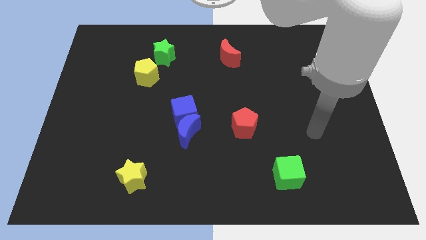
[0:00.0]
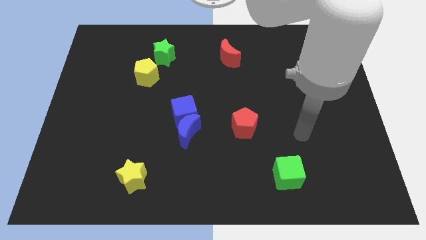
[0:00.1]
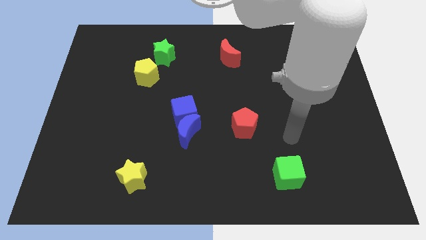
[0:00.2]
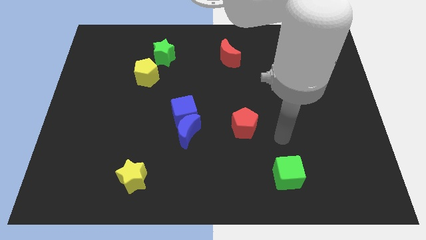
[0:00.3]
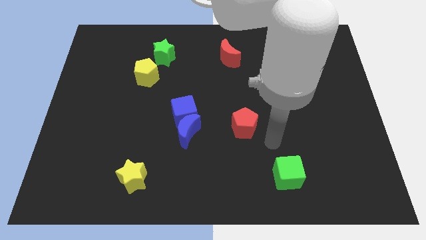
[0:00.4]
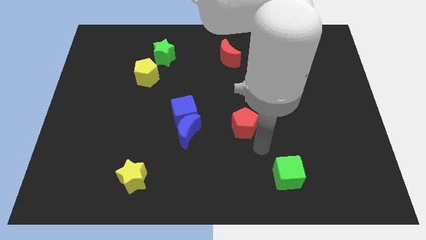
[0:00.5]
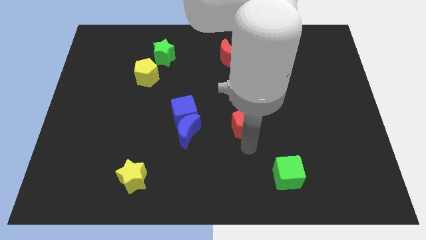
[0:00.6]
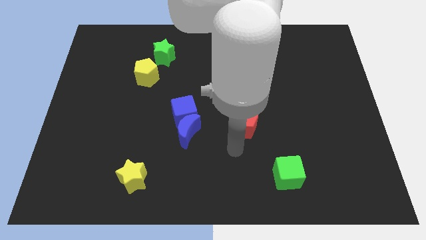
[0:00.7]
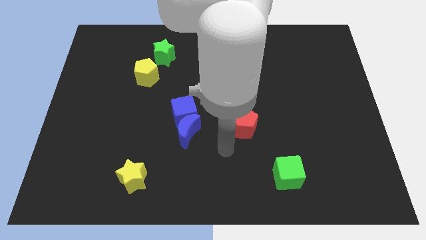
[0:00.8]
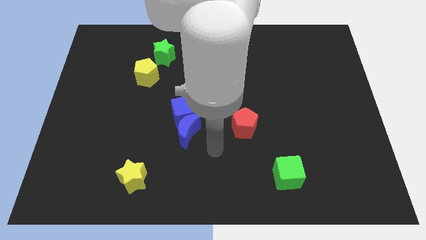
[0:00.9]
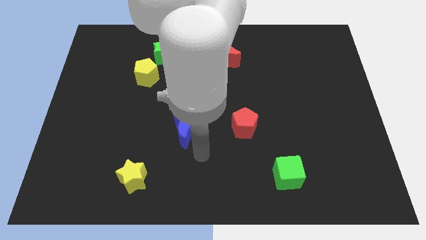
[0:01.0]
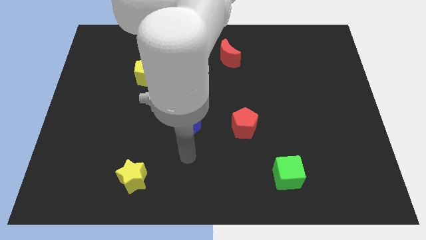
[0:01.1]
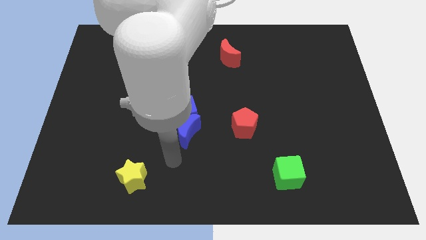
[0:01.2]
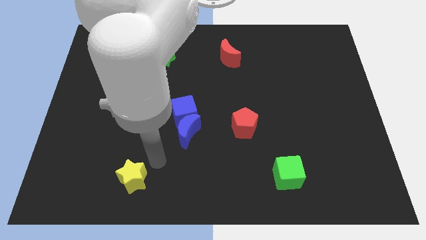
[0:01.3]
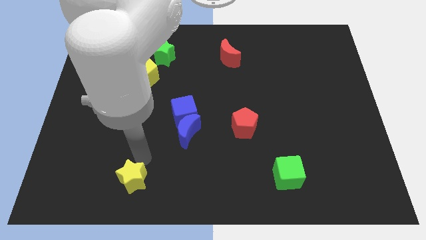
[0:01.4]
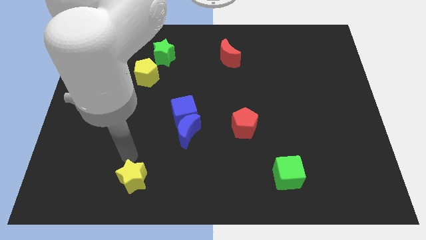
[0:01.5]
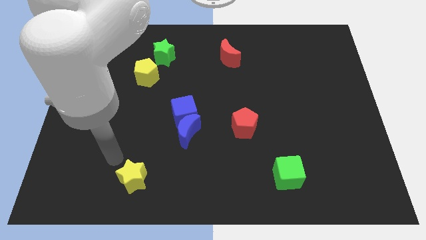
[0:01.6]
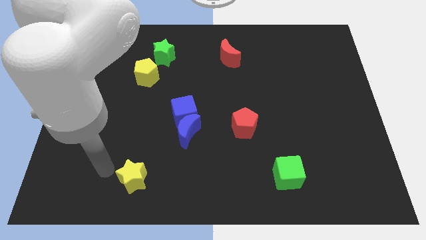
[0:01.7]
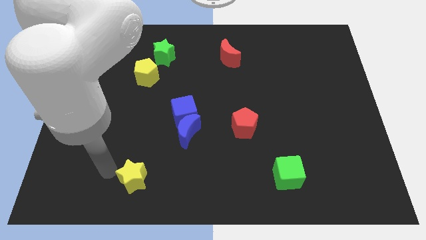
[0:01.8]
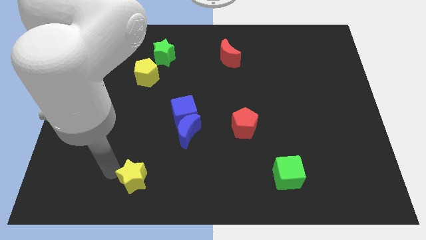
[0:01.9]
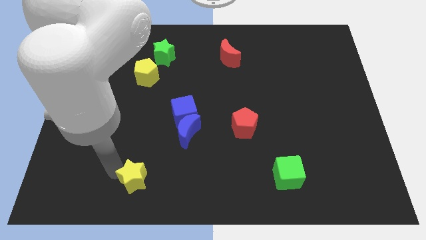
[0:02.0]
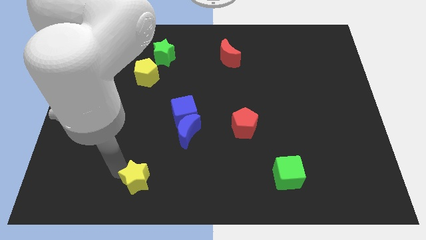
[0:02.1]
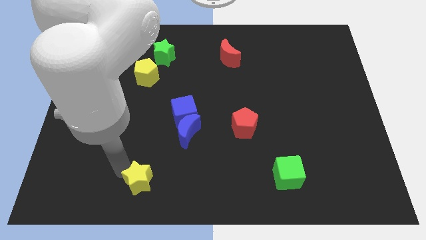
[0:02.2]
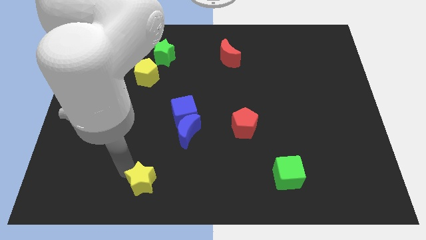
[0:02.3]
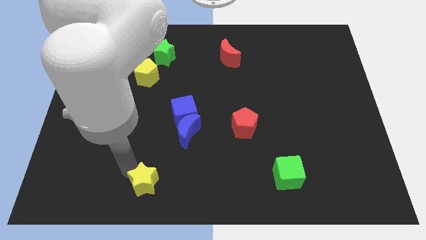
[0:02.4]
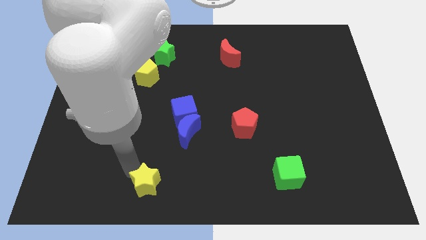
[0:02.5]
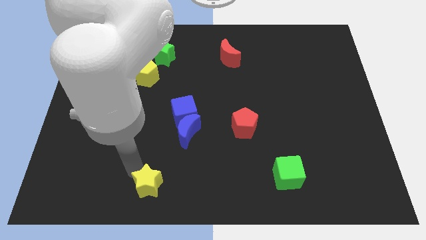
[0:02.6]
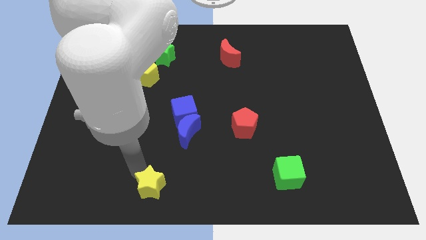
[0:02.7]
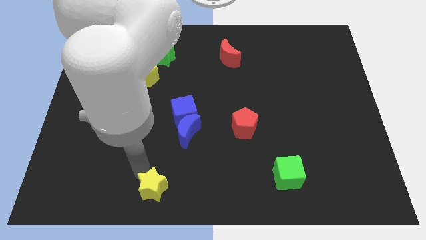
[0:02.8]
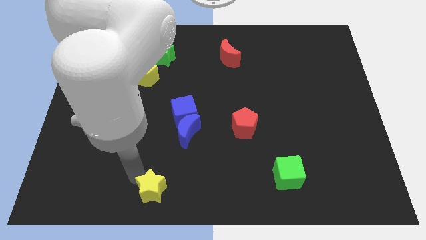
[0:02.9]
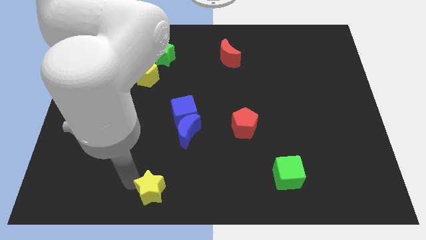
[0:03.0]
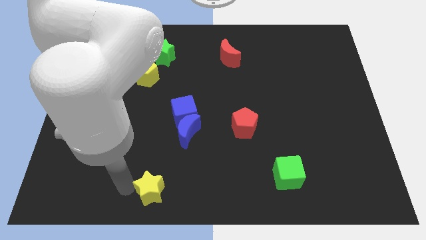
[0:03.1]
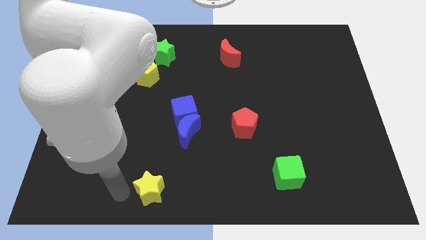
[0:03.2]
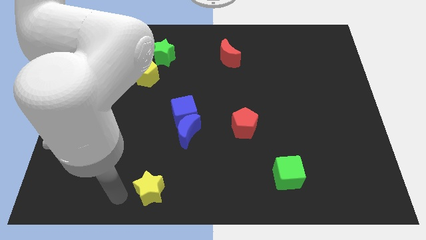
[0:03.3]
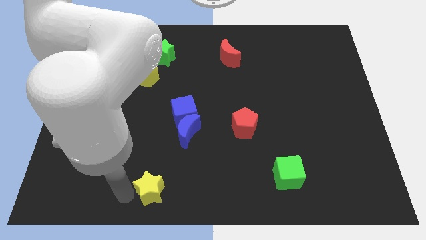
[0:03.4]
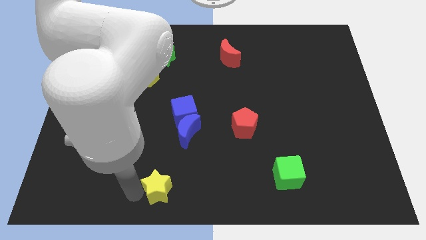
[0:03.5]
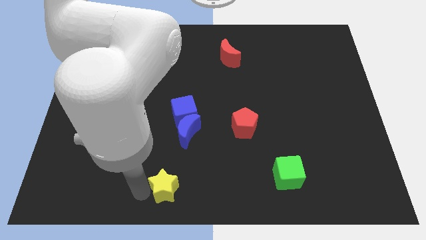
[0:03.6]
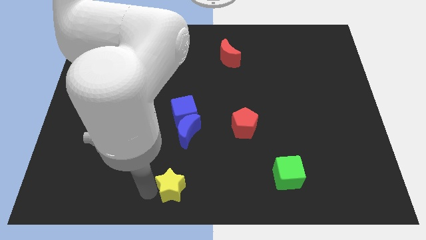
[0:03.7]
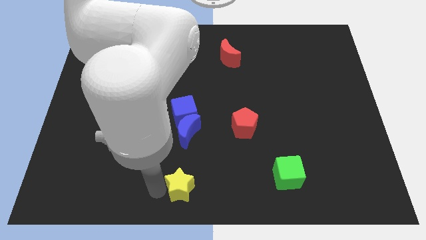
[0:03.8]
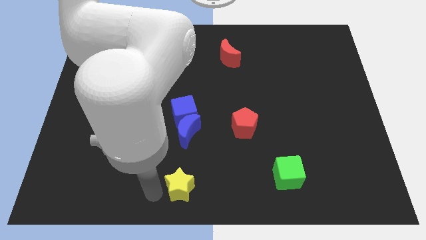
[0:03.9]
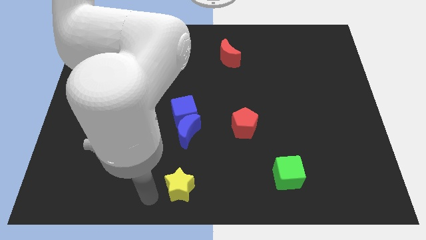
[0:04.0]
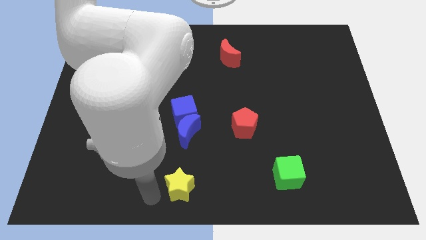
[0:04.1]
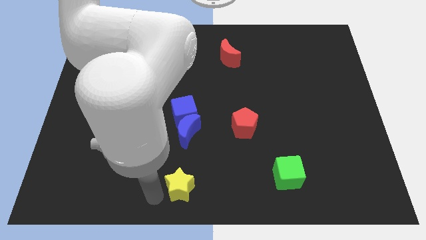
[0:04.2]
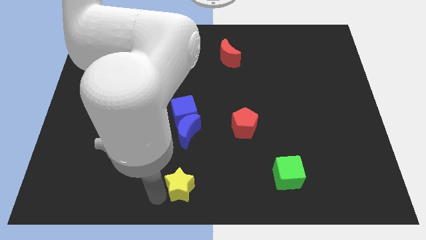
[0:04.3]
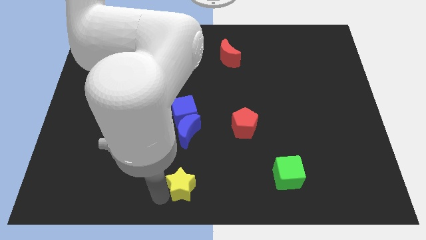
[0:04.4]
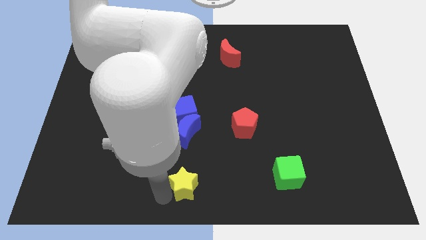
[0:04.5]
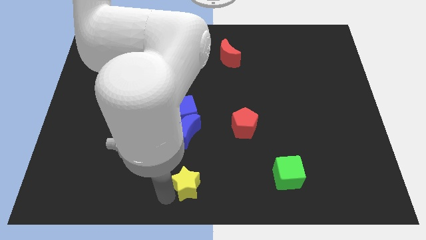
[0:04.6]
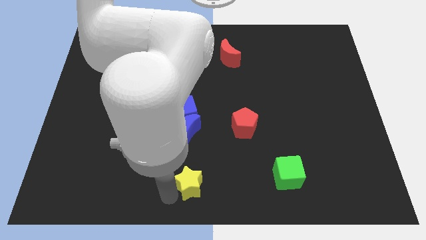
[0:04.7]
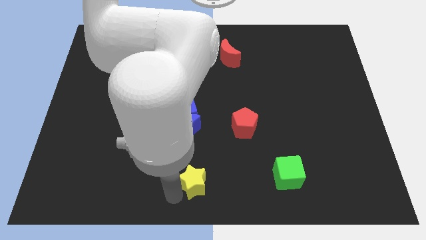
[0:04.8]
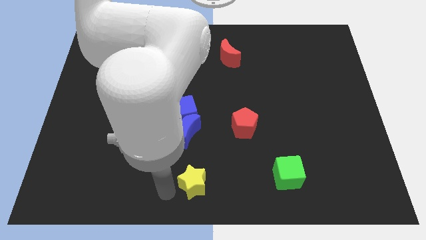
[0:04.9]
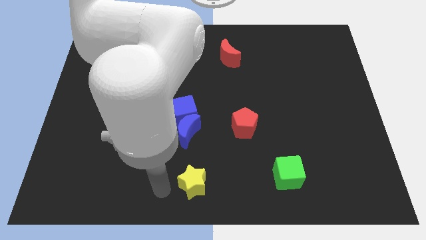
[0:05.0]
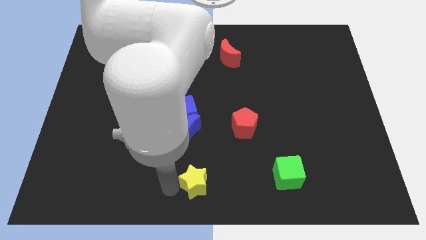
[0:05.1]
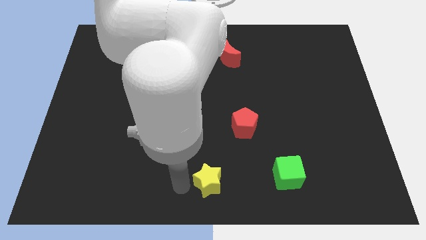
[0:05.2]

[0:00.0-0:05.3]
move the yellow star to the left side of the green cube

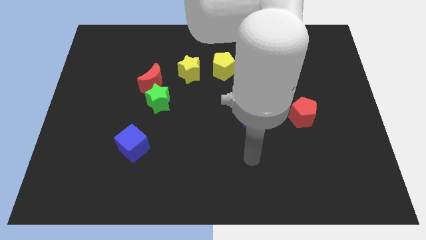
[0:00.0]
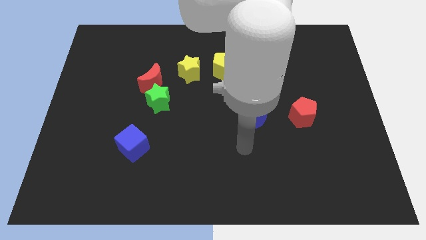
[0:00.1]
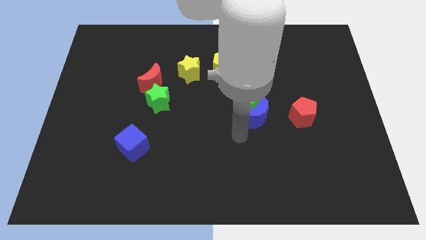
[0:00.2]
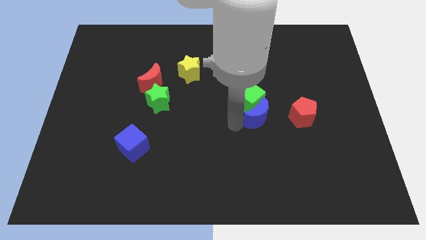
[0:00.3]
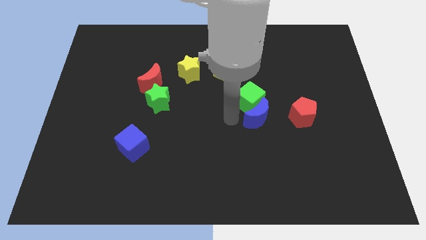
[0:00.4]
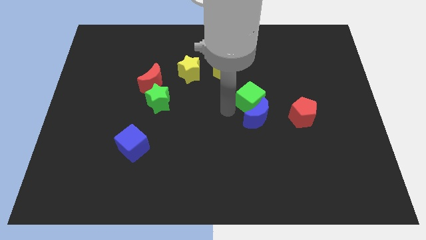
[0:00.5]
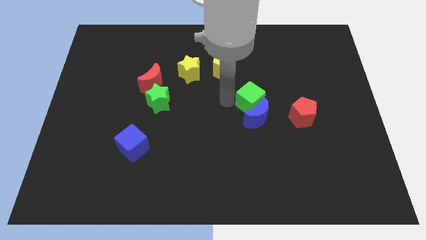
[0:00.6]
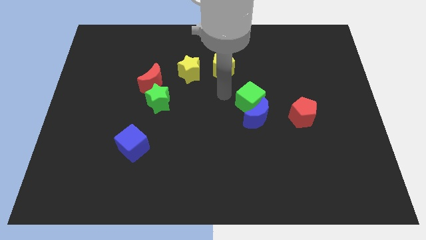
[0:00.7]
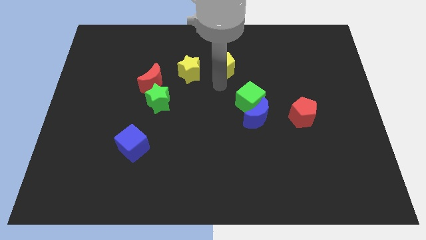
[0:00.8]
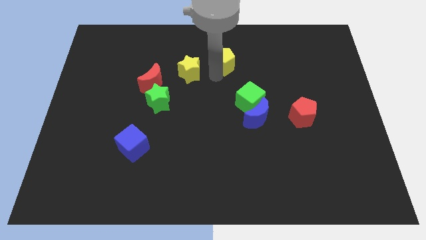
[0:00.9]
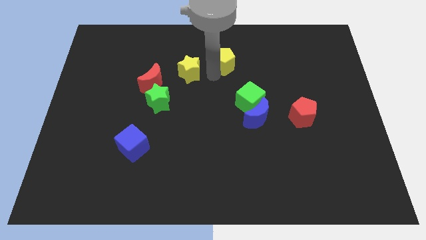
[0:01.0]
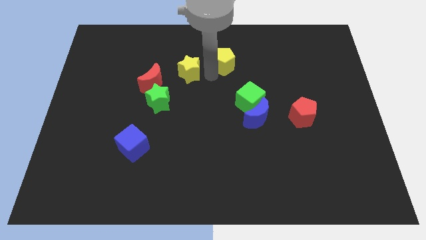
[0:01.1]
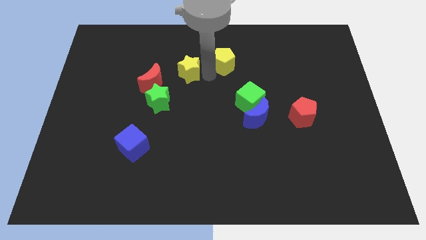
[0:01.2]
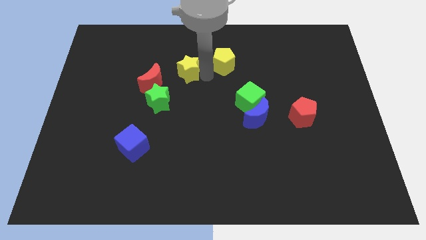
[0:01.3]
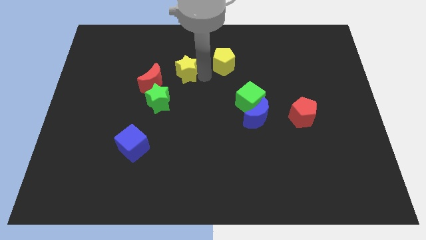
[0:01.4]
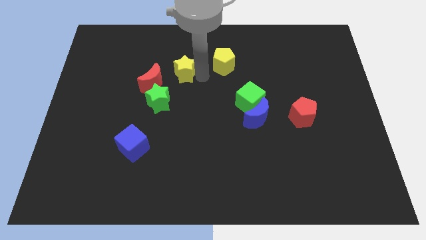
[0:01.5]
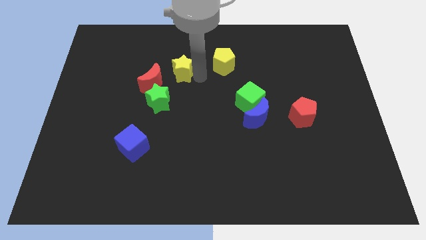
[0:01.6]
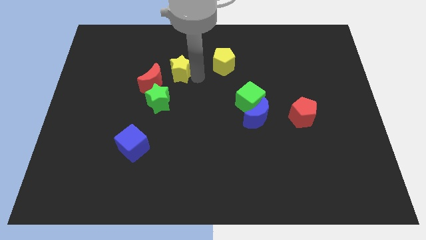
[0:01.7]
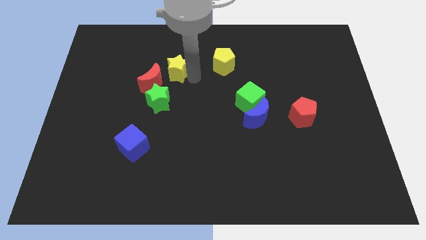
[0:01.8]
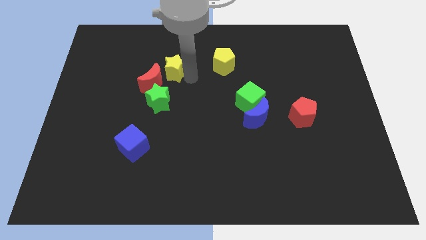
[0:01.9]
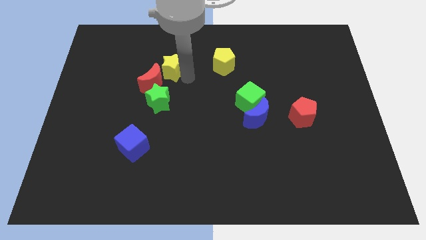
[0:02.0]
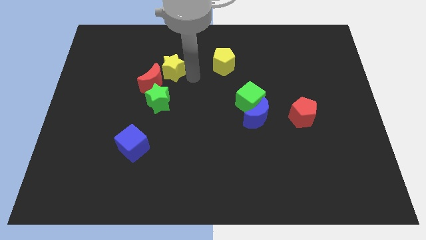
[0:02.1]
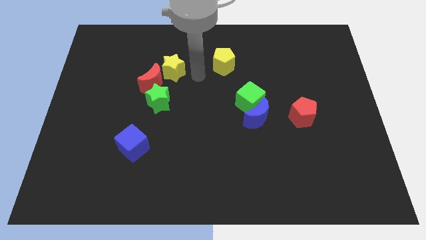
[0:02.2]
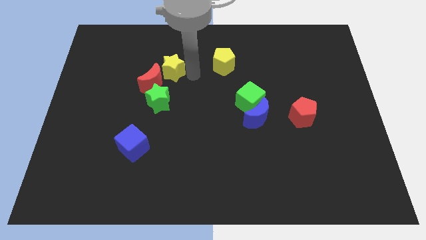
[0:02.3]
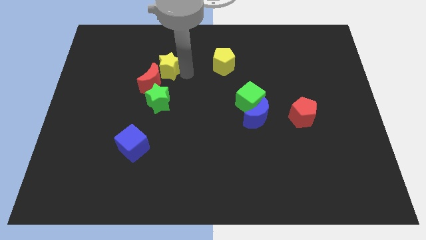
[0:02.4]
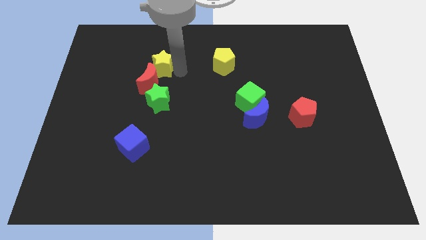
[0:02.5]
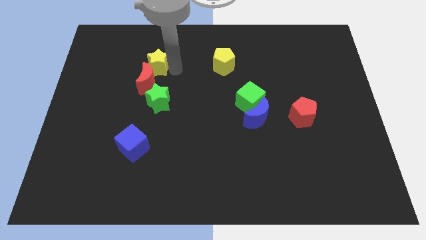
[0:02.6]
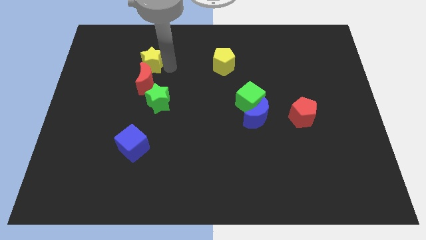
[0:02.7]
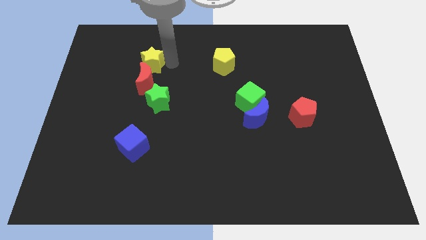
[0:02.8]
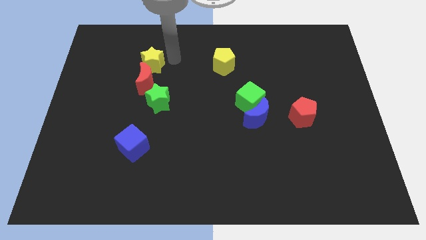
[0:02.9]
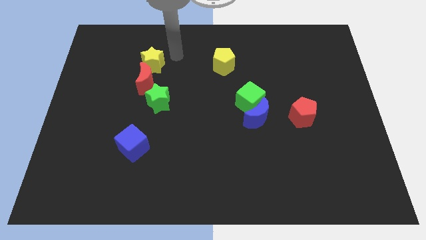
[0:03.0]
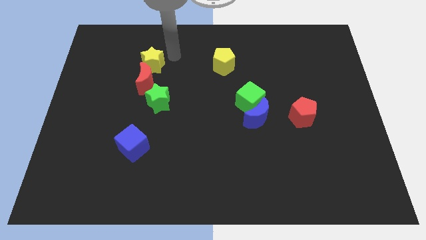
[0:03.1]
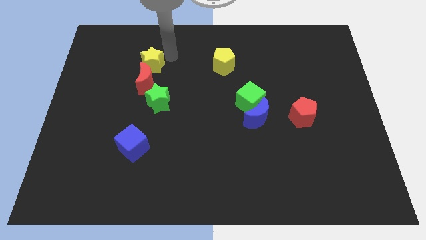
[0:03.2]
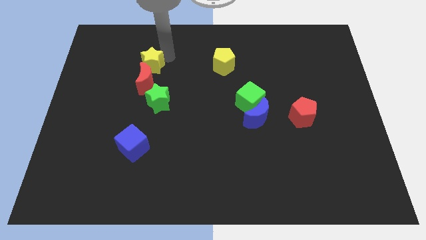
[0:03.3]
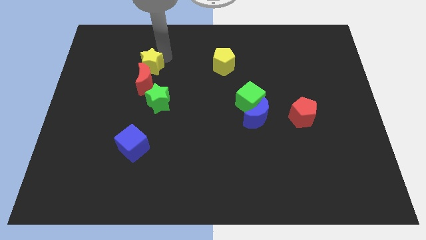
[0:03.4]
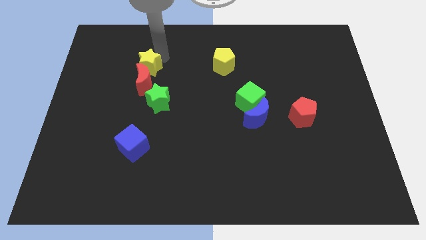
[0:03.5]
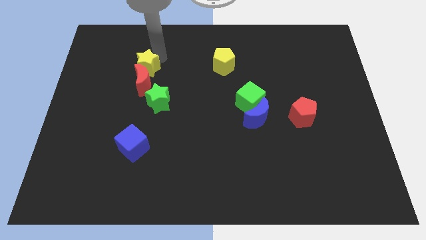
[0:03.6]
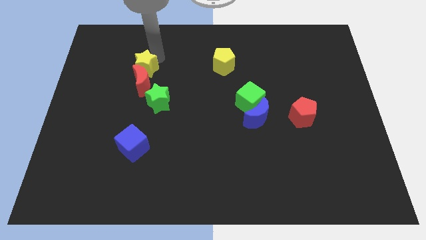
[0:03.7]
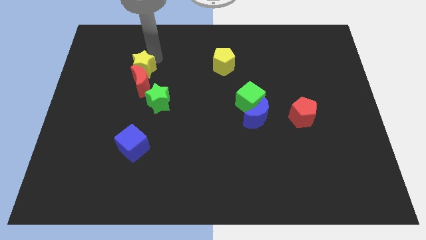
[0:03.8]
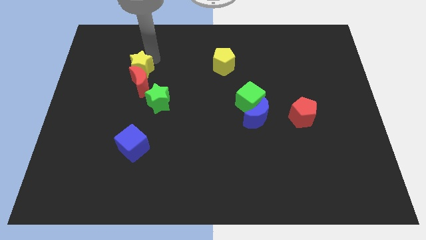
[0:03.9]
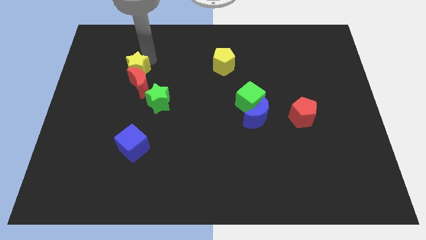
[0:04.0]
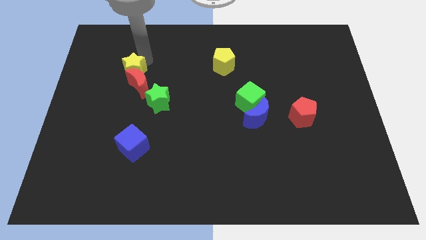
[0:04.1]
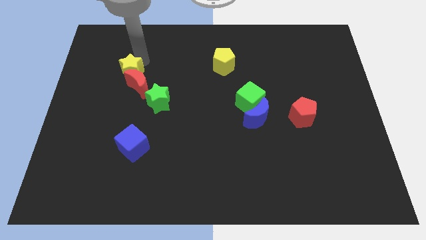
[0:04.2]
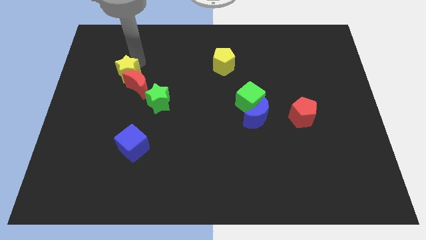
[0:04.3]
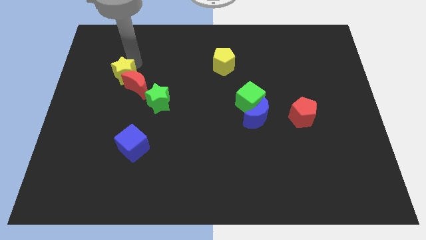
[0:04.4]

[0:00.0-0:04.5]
slide the yellow star to the left side of the red moon
